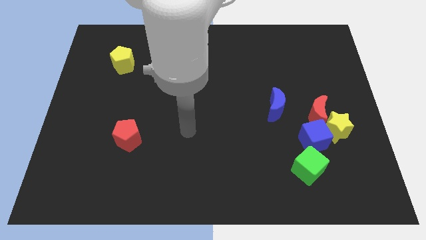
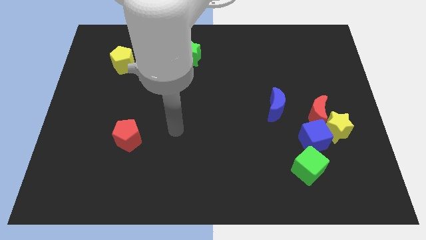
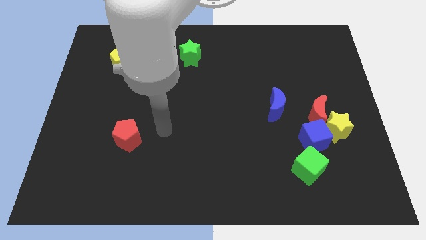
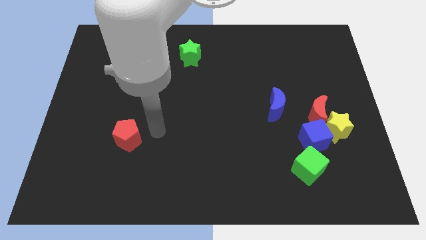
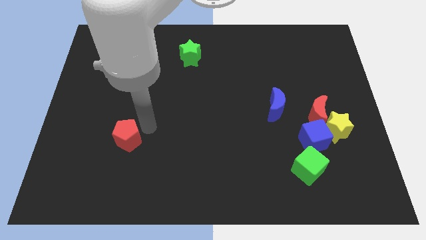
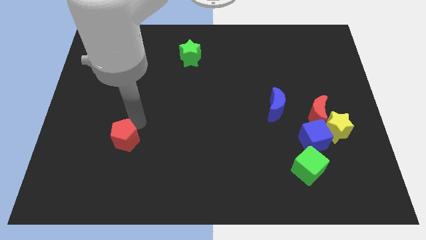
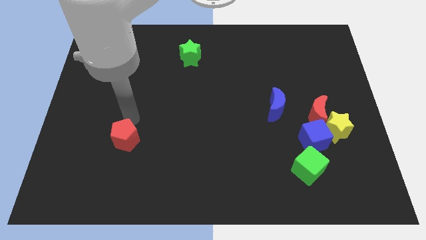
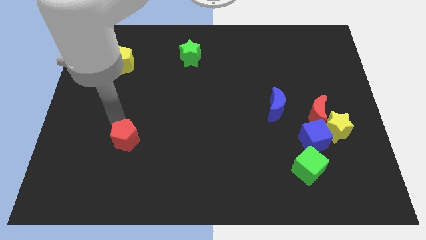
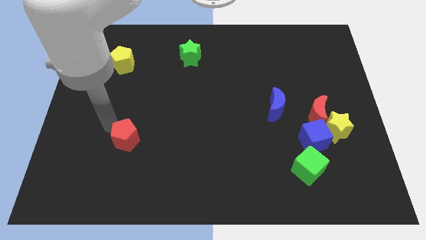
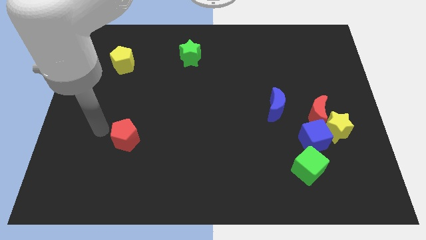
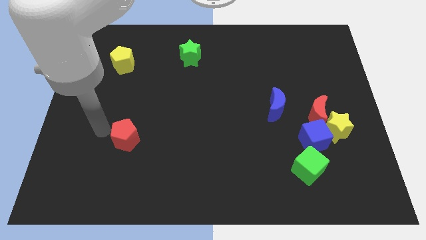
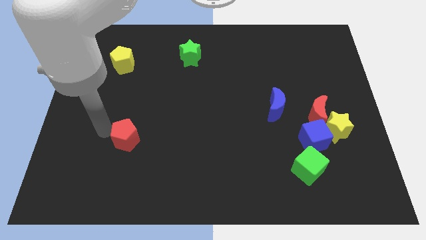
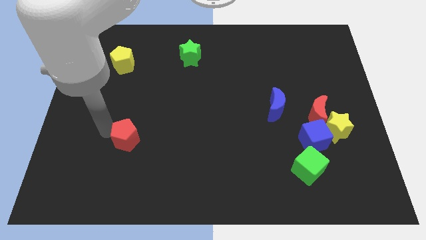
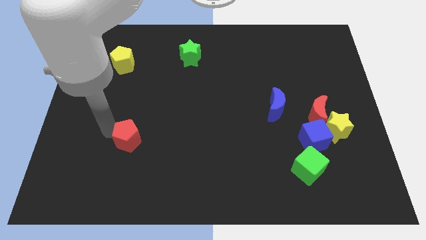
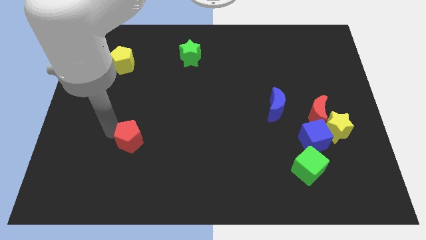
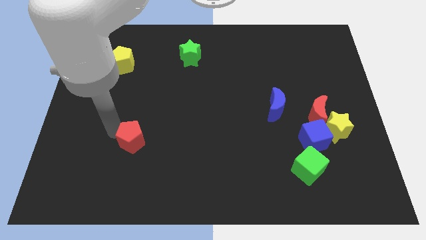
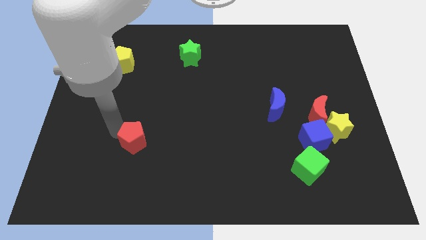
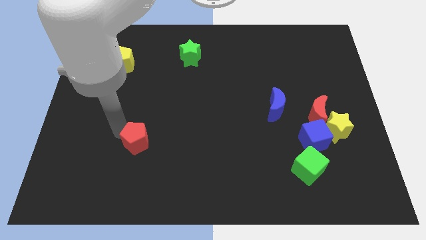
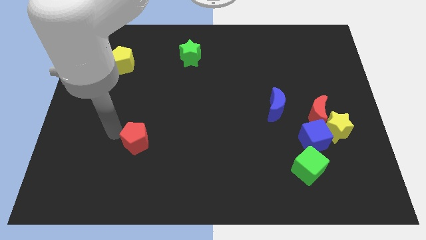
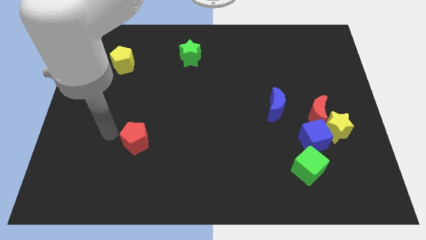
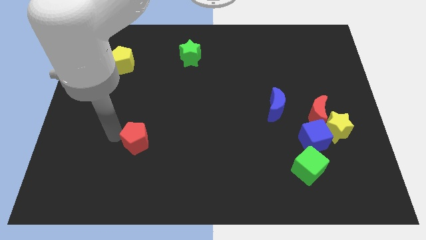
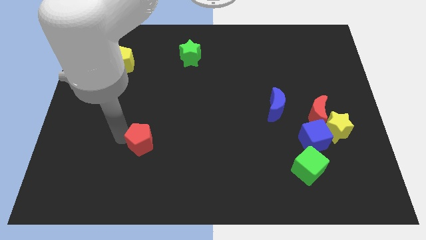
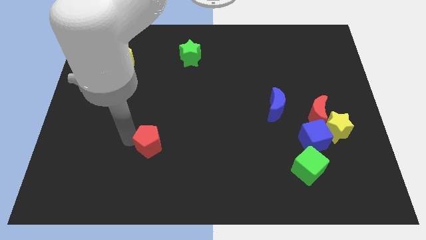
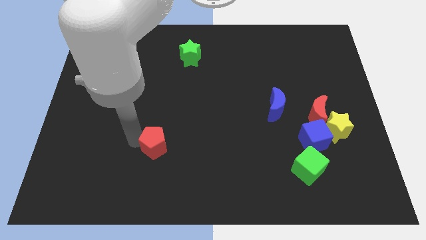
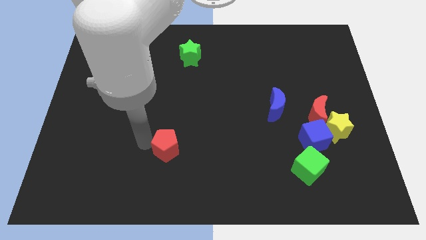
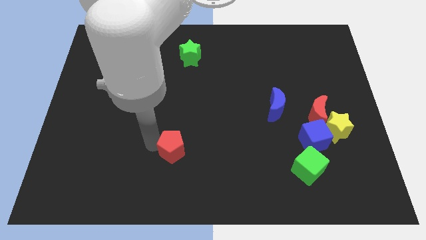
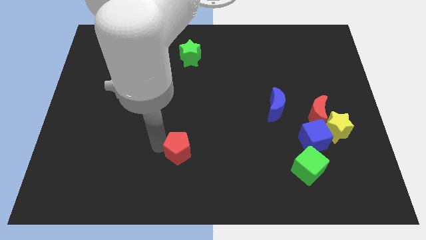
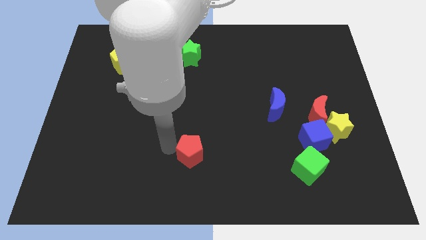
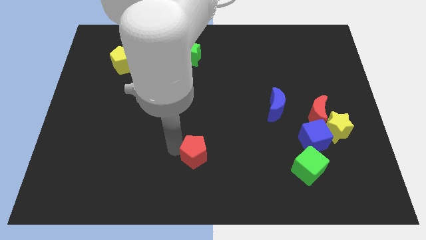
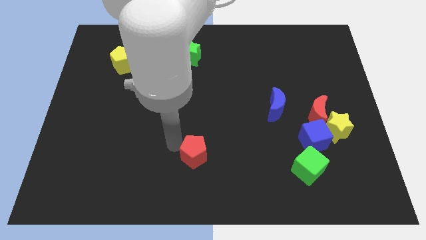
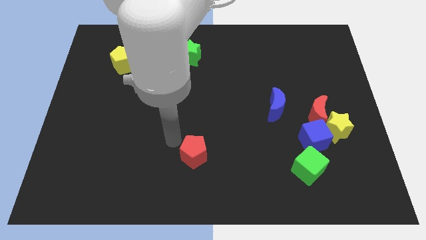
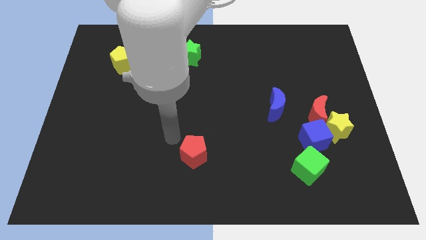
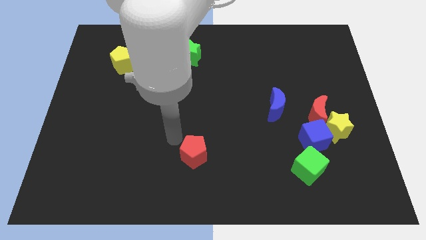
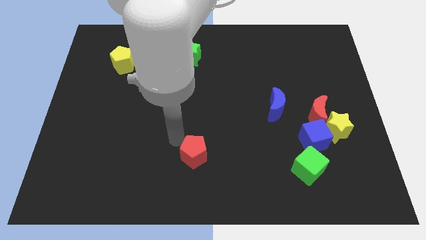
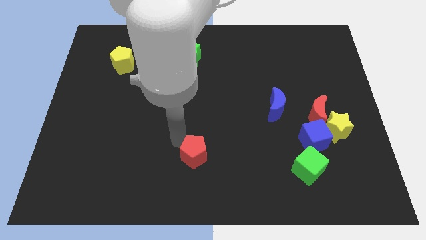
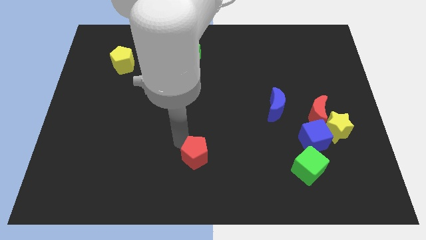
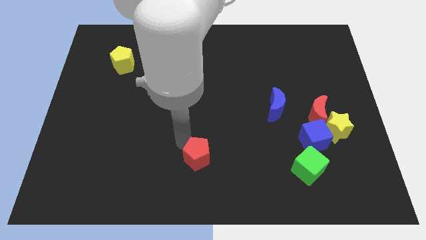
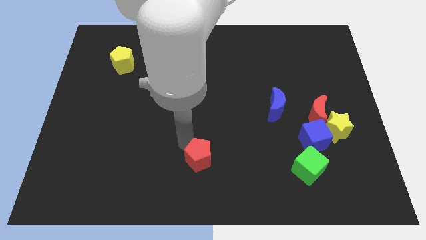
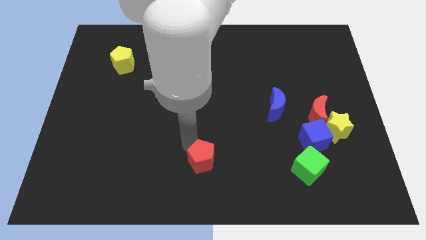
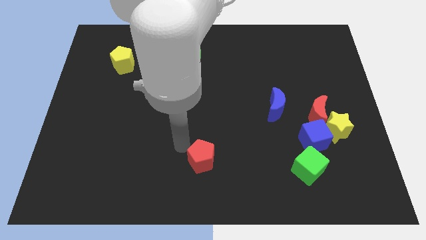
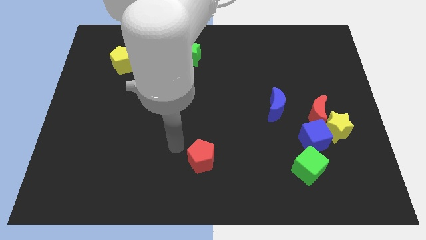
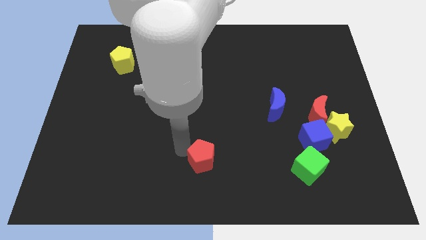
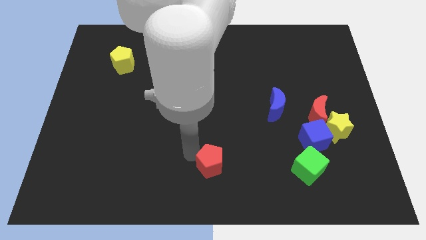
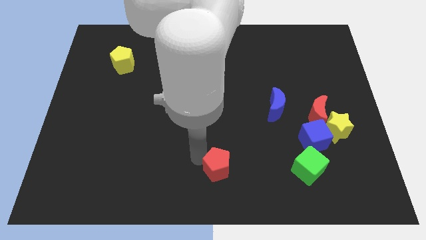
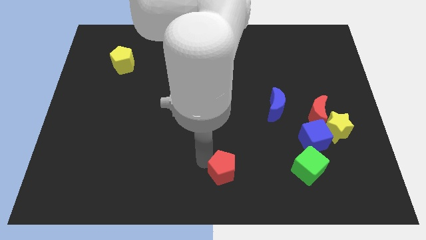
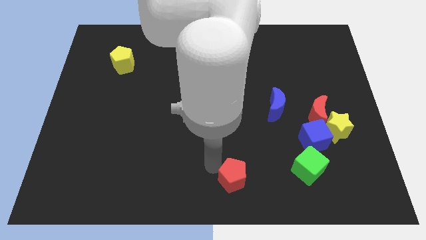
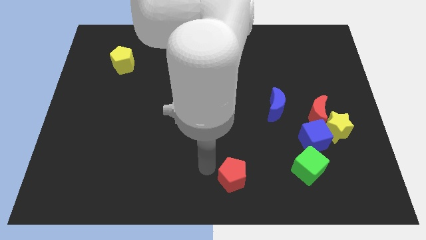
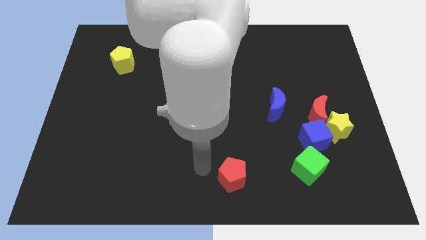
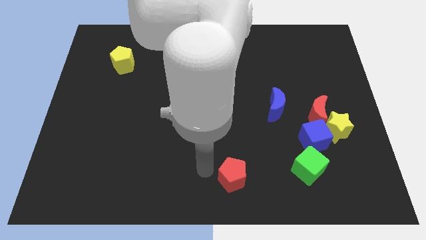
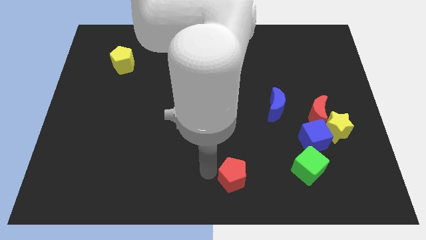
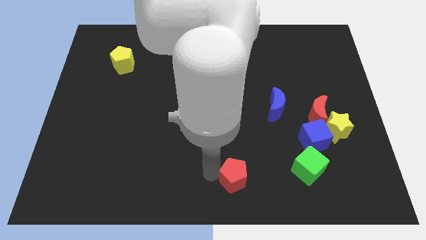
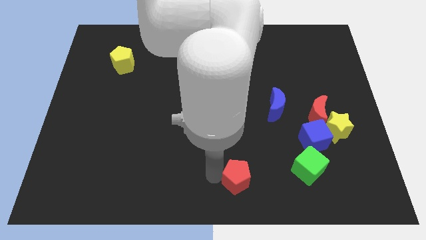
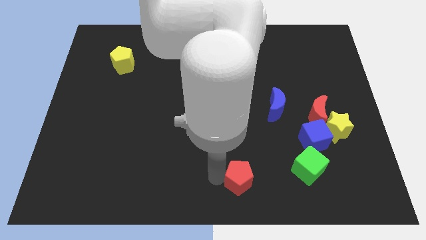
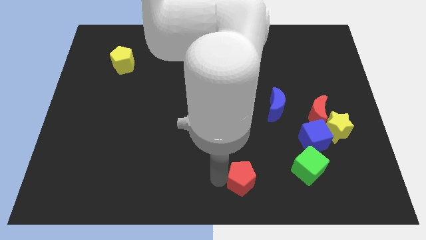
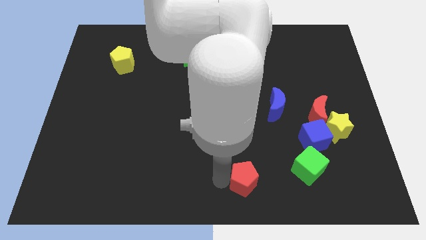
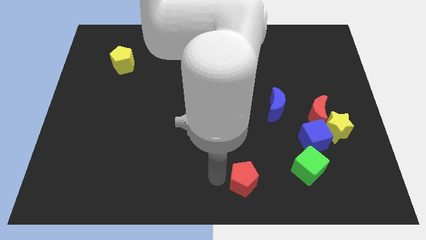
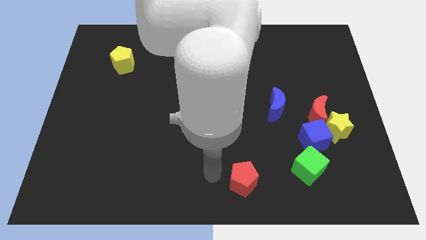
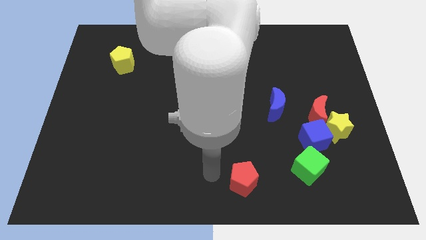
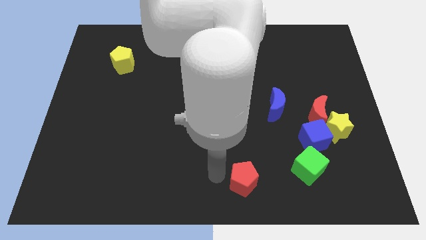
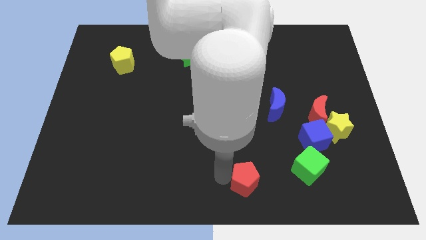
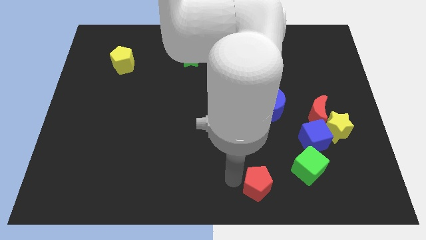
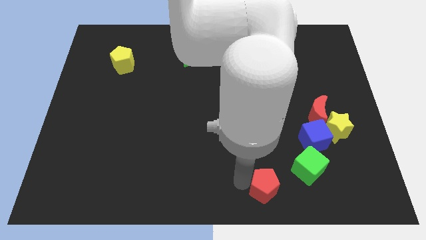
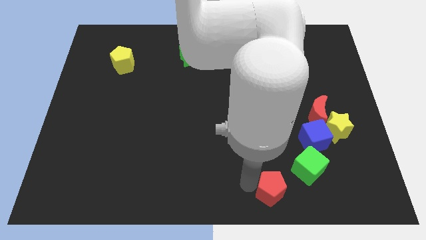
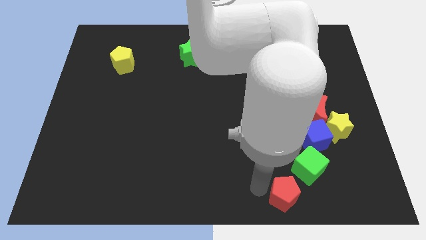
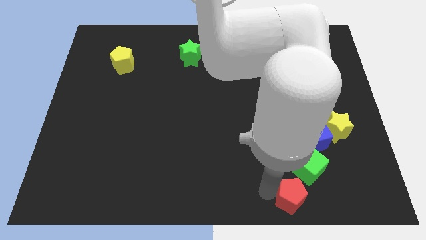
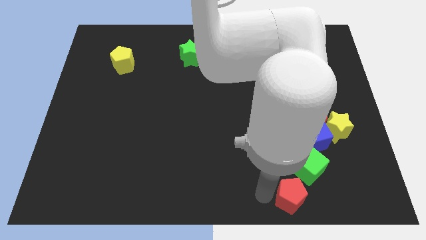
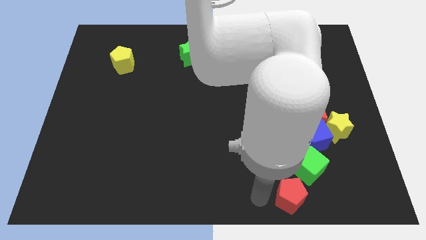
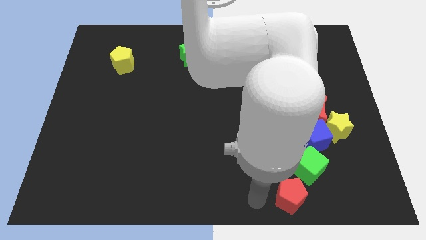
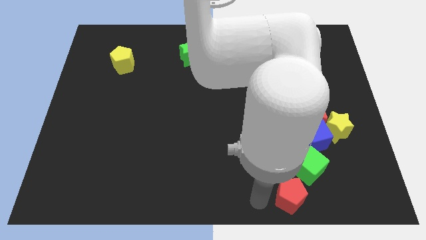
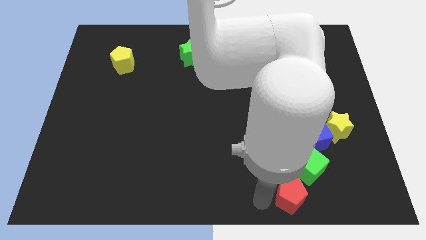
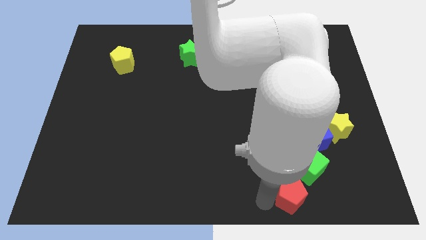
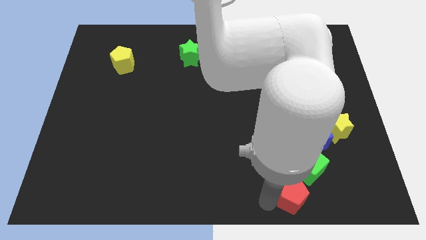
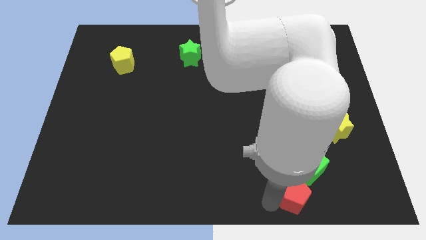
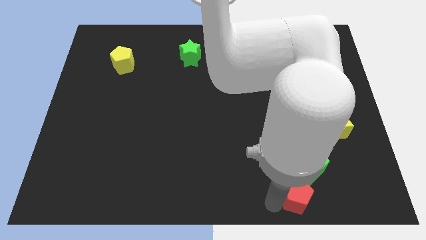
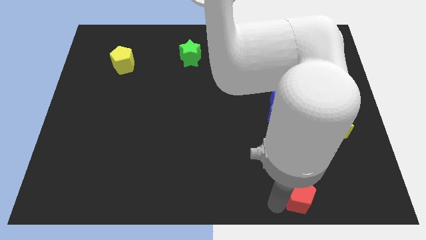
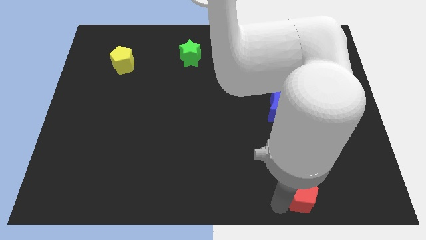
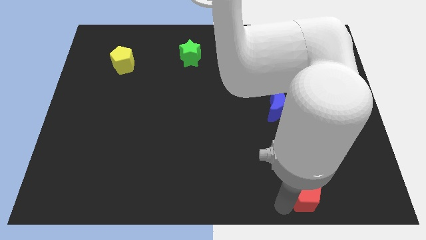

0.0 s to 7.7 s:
move the red pentagon to the bottom side of the blue cube
